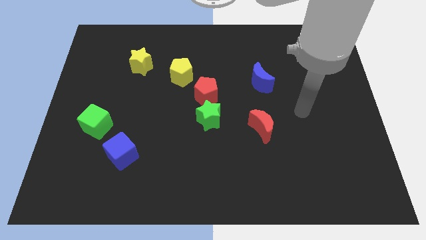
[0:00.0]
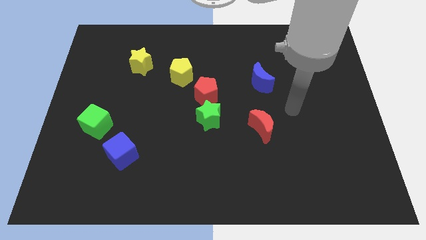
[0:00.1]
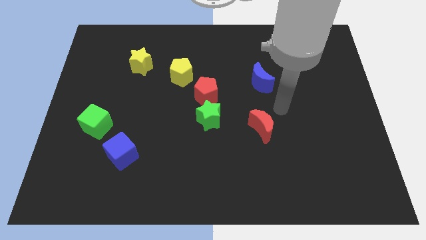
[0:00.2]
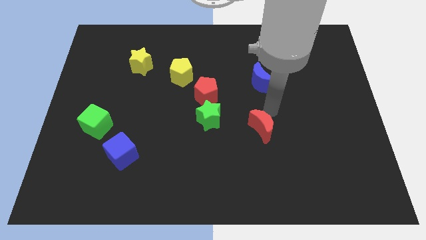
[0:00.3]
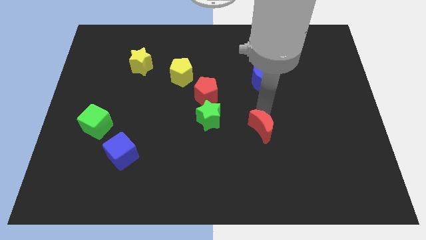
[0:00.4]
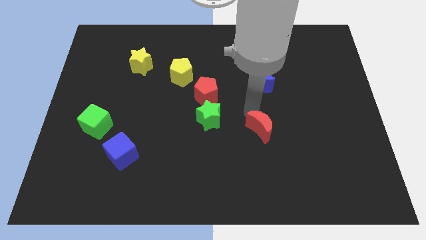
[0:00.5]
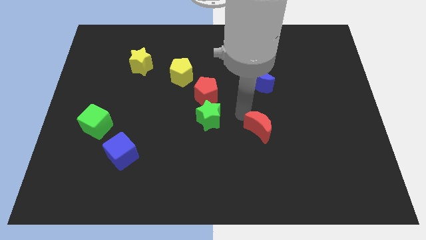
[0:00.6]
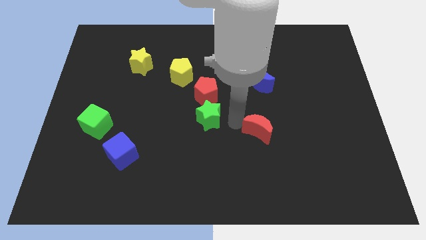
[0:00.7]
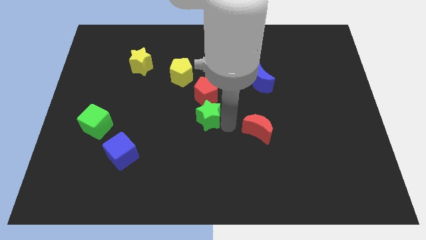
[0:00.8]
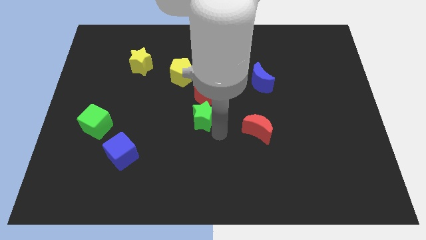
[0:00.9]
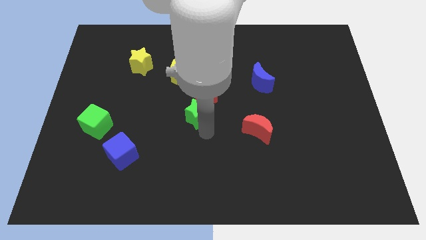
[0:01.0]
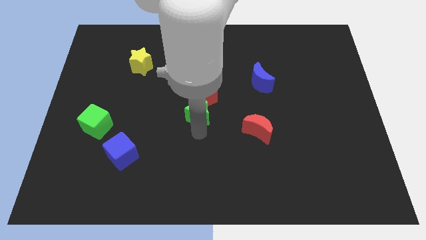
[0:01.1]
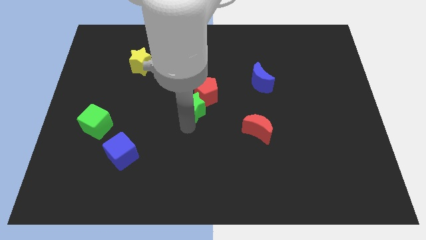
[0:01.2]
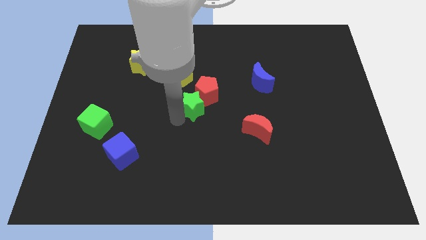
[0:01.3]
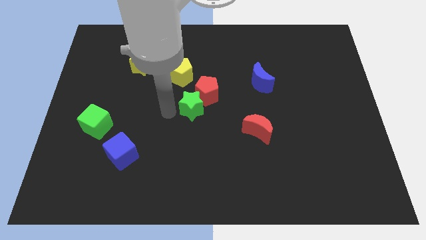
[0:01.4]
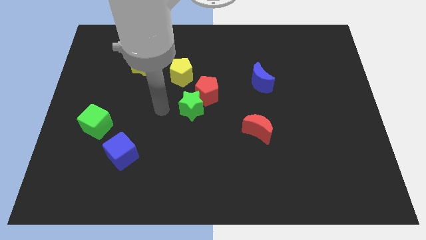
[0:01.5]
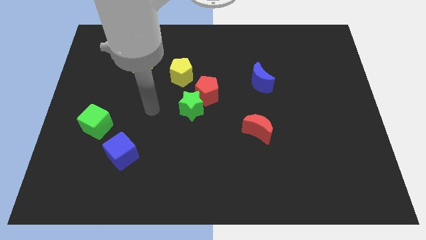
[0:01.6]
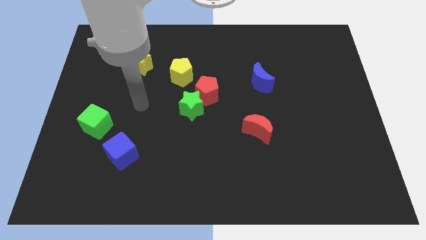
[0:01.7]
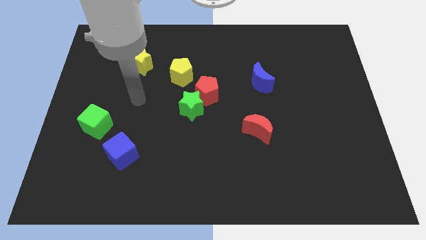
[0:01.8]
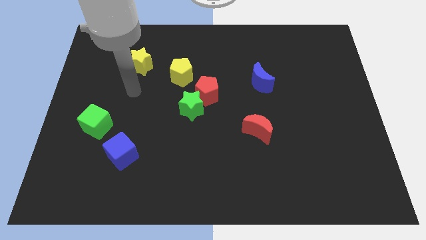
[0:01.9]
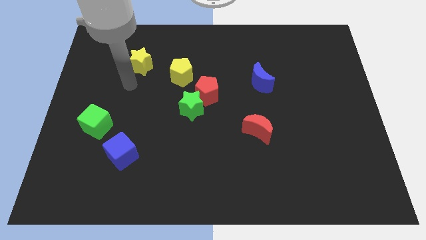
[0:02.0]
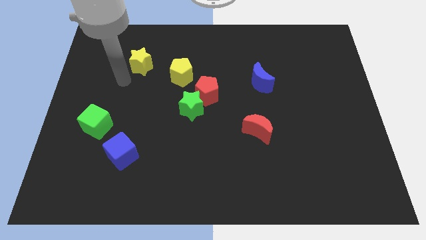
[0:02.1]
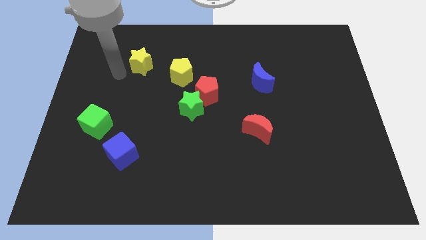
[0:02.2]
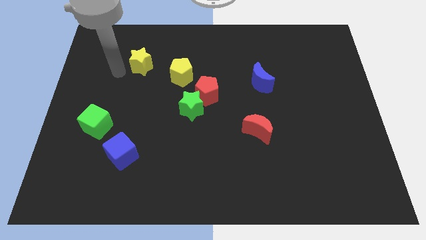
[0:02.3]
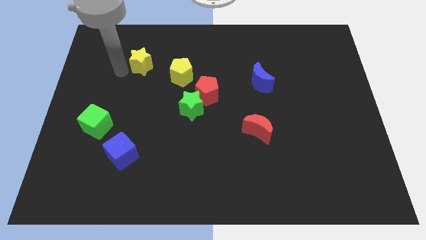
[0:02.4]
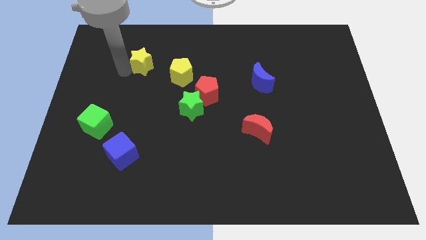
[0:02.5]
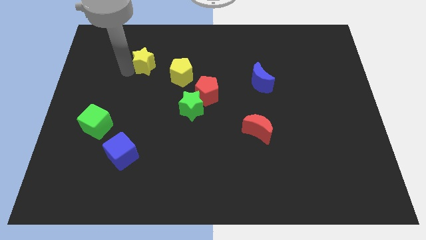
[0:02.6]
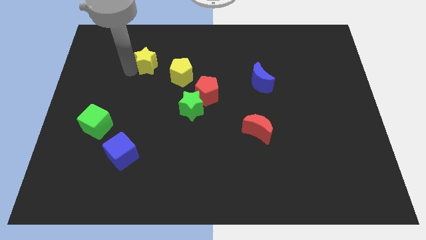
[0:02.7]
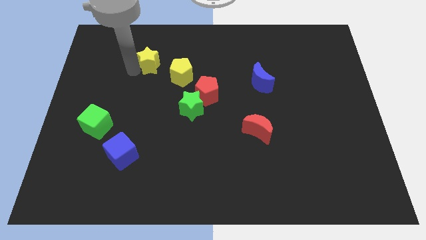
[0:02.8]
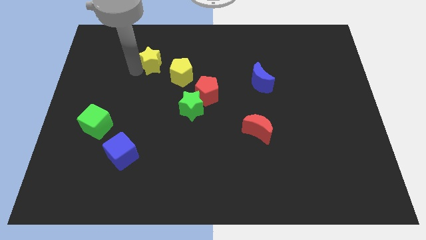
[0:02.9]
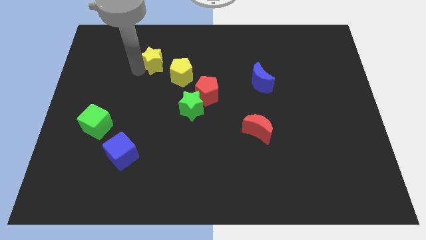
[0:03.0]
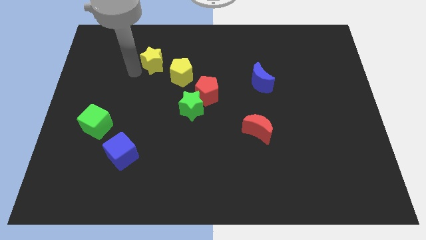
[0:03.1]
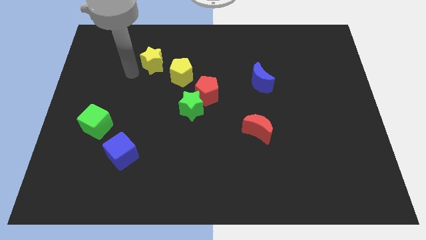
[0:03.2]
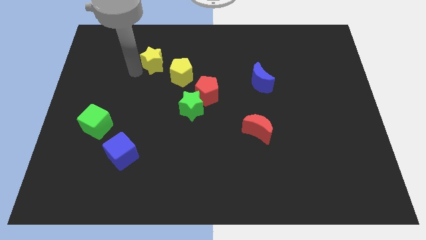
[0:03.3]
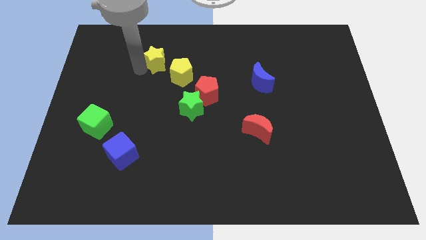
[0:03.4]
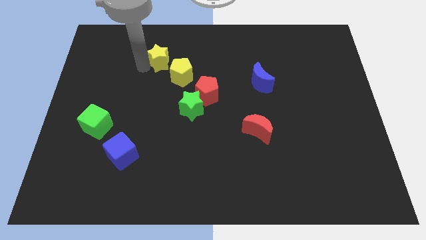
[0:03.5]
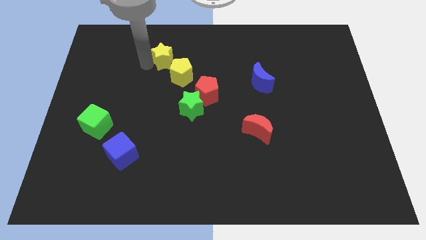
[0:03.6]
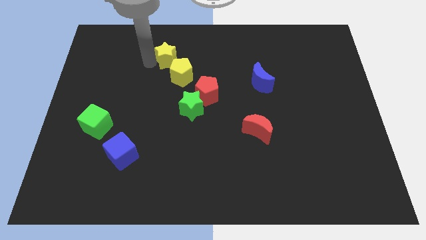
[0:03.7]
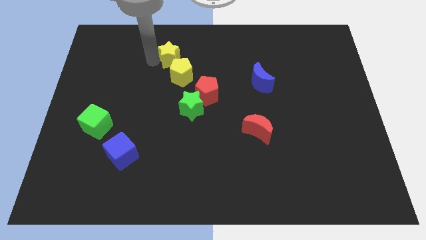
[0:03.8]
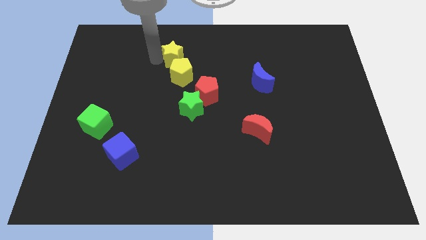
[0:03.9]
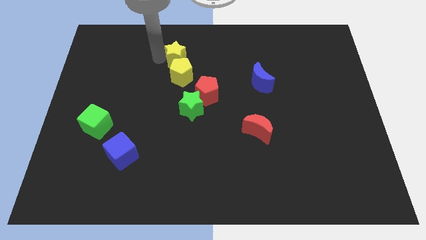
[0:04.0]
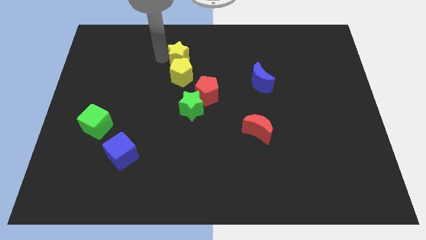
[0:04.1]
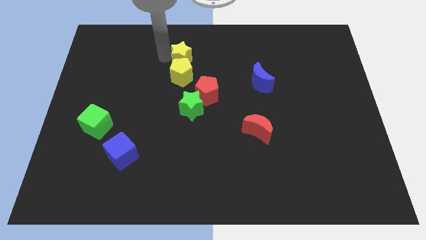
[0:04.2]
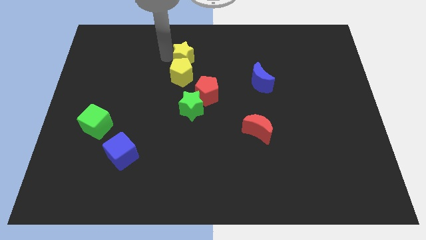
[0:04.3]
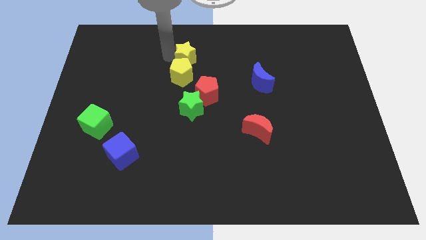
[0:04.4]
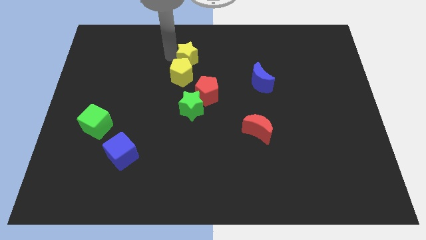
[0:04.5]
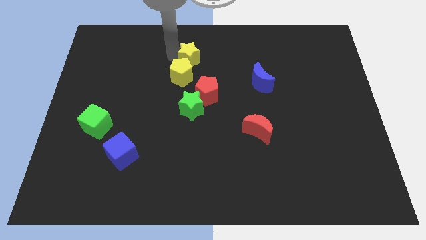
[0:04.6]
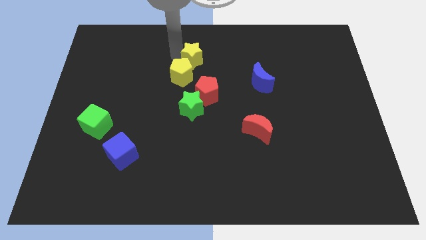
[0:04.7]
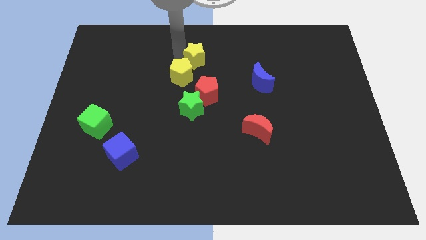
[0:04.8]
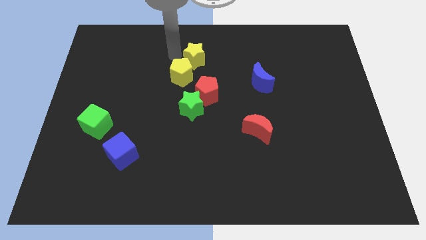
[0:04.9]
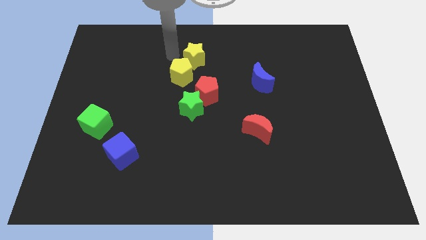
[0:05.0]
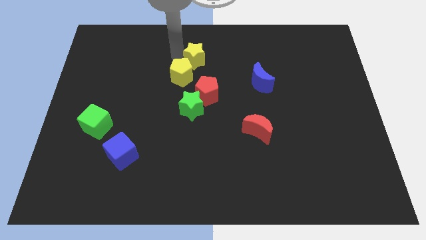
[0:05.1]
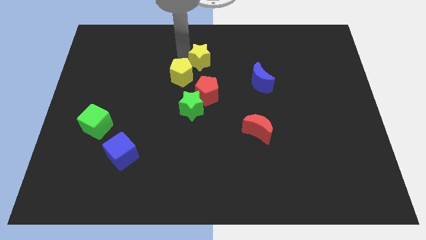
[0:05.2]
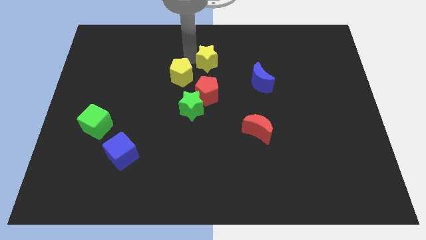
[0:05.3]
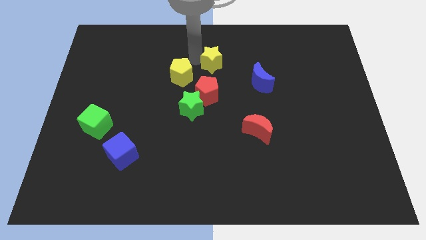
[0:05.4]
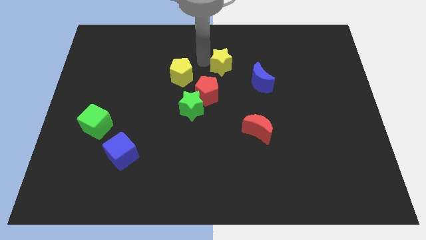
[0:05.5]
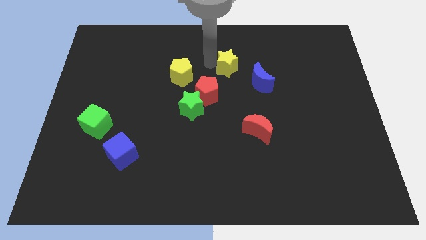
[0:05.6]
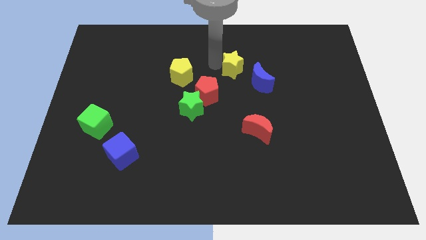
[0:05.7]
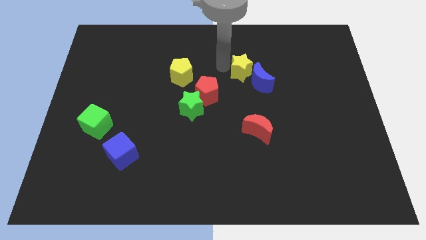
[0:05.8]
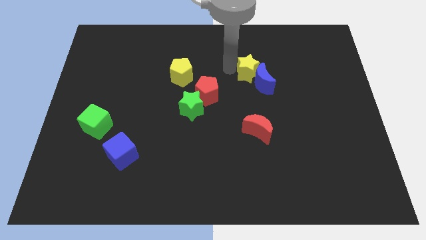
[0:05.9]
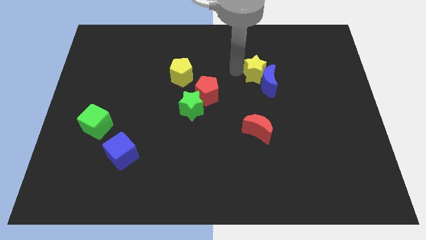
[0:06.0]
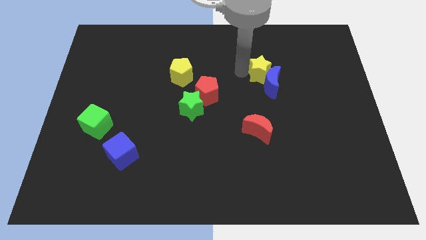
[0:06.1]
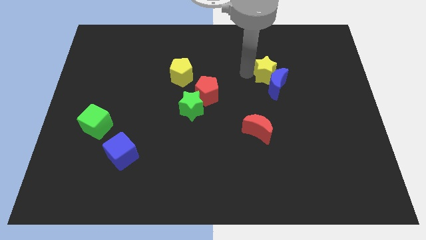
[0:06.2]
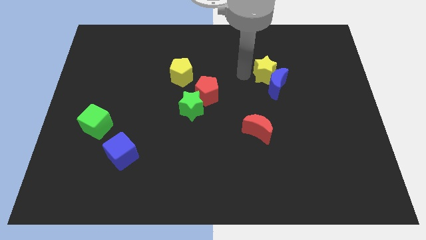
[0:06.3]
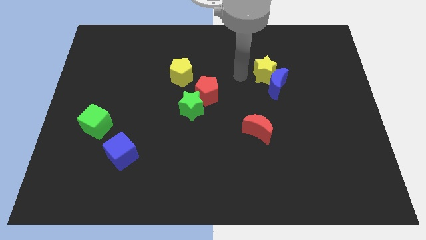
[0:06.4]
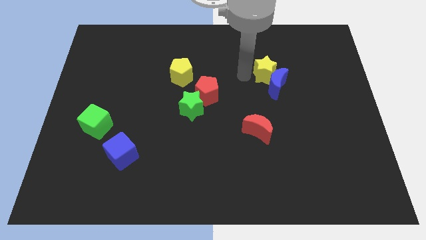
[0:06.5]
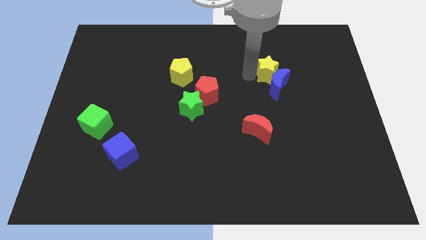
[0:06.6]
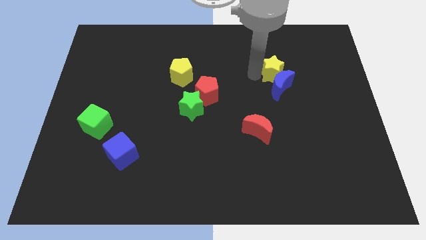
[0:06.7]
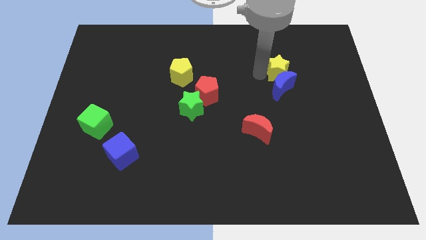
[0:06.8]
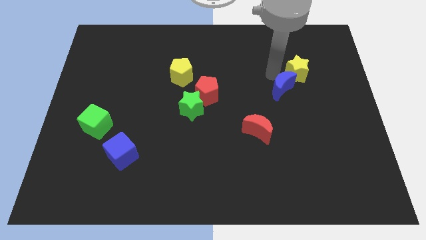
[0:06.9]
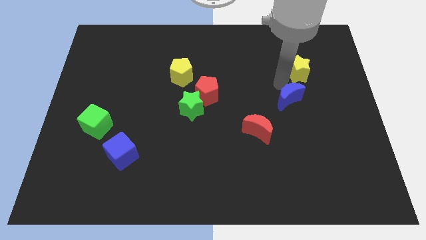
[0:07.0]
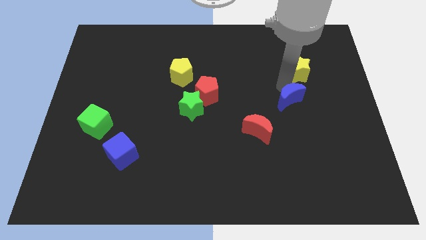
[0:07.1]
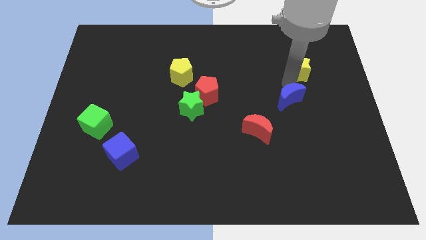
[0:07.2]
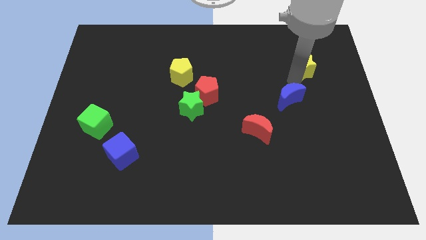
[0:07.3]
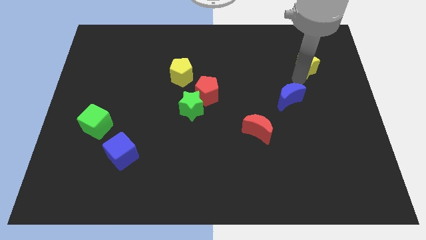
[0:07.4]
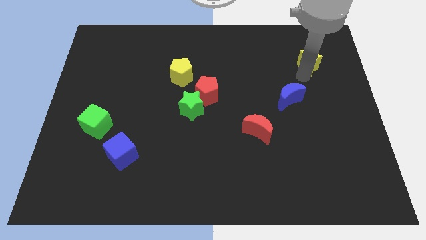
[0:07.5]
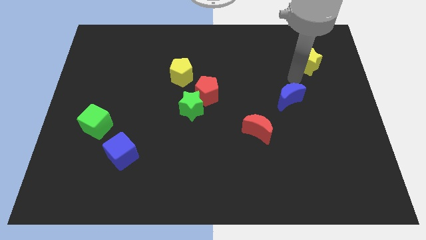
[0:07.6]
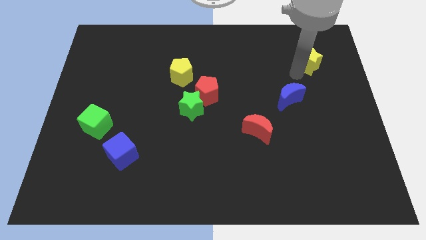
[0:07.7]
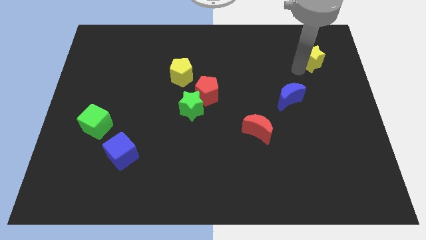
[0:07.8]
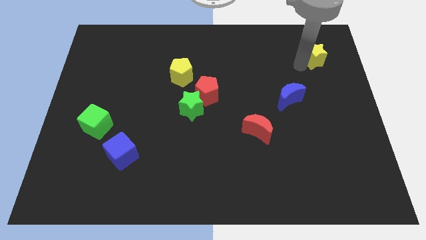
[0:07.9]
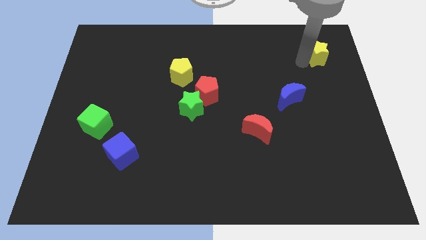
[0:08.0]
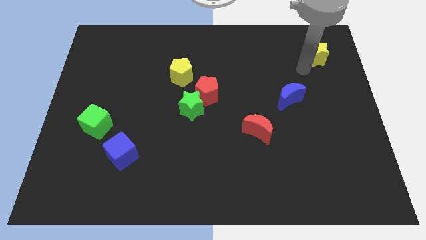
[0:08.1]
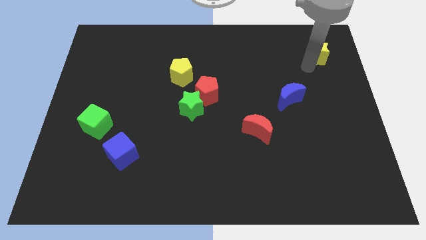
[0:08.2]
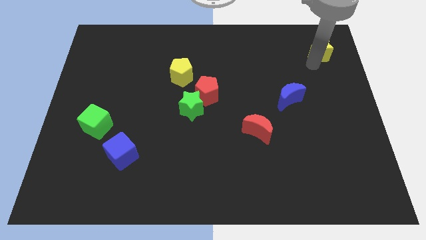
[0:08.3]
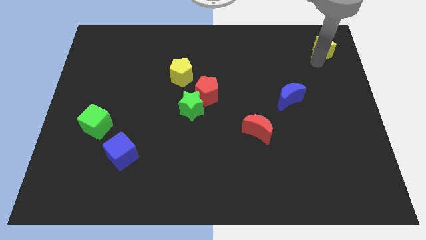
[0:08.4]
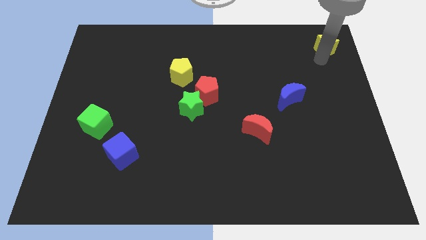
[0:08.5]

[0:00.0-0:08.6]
put the yellow star to the top right
